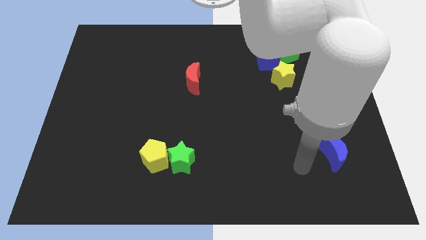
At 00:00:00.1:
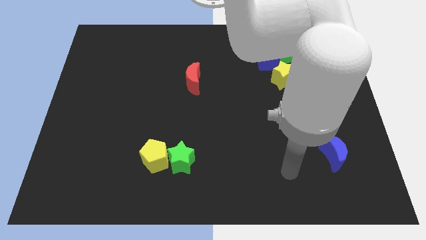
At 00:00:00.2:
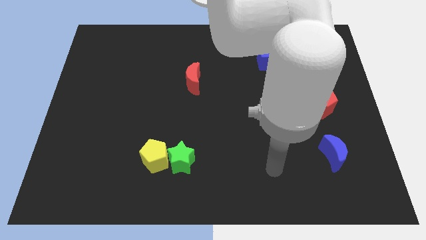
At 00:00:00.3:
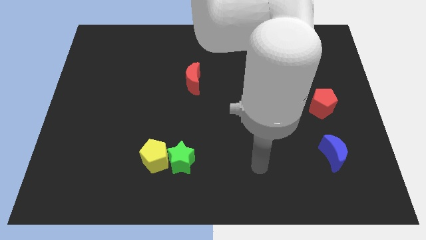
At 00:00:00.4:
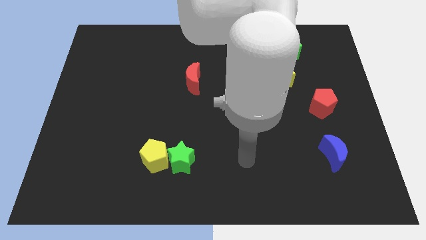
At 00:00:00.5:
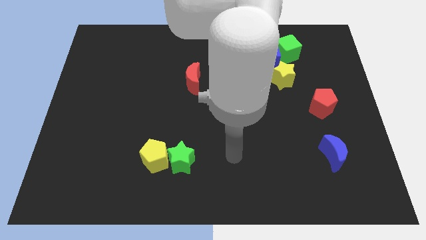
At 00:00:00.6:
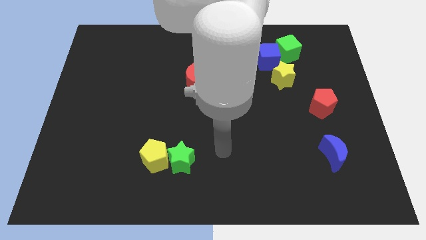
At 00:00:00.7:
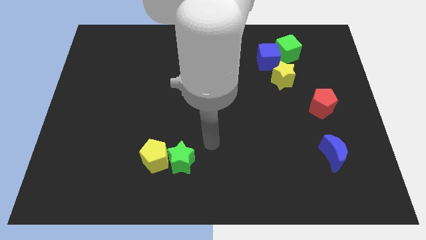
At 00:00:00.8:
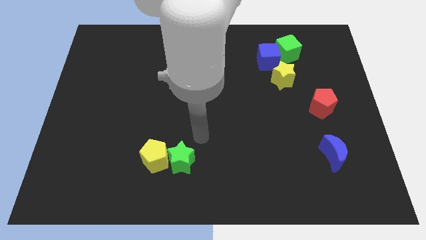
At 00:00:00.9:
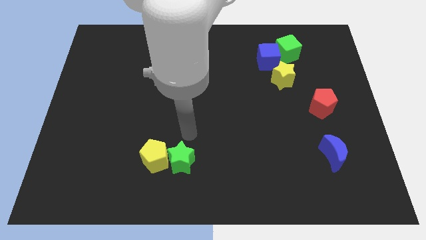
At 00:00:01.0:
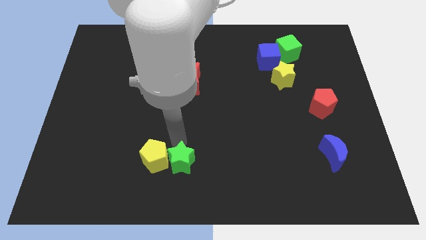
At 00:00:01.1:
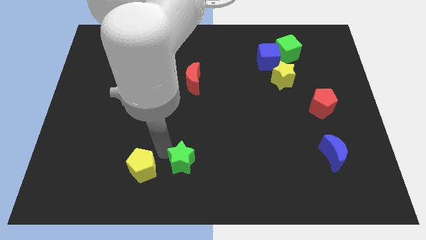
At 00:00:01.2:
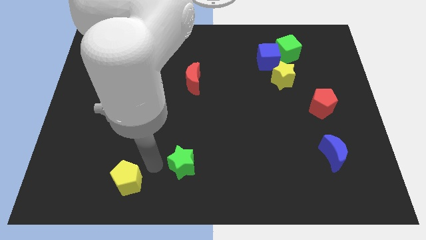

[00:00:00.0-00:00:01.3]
separate the green star from the yellow pentagon

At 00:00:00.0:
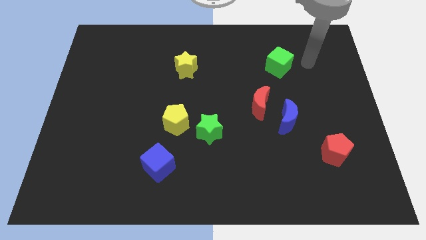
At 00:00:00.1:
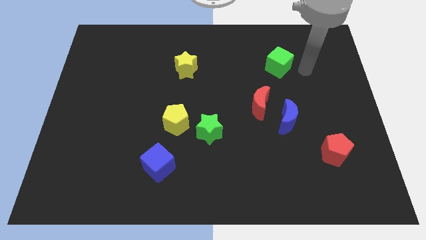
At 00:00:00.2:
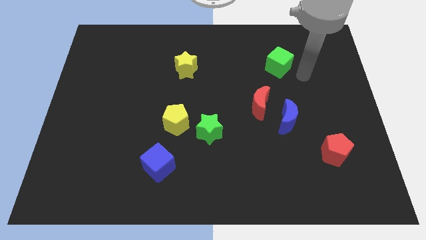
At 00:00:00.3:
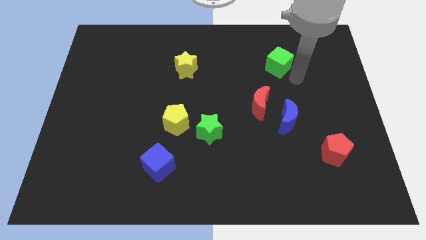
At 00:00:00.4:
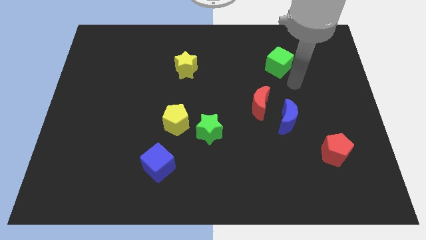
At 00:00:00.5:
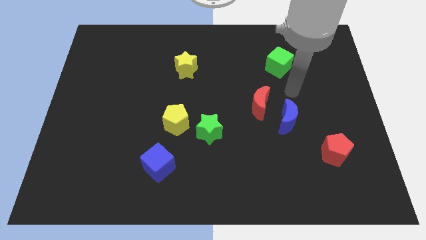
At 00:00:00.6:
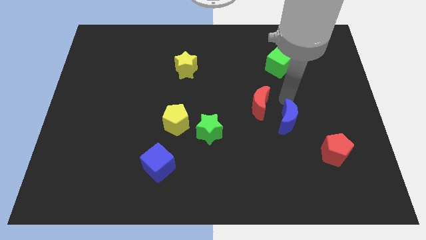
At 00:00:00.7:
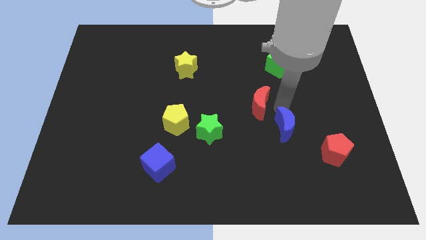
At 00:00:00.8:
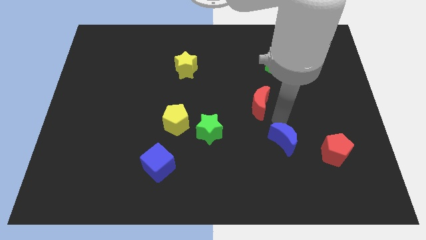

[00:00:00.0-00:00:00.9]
move the red moon away from the blue moon

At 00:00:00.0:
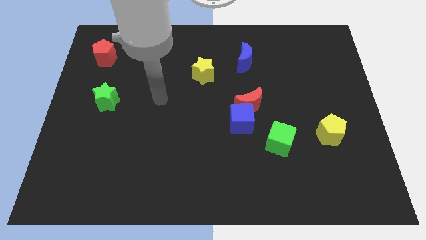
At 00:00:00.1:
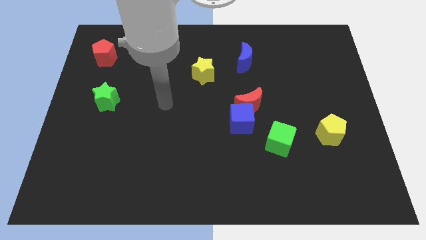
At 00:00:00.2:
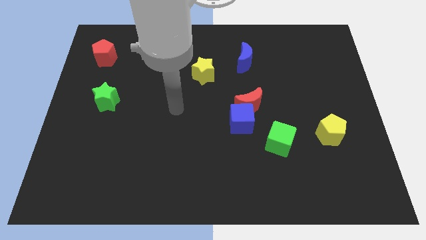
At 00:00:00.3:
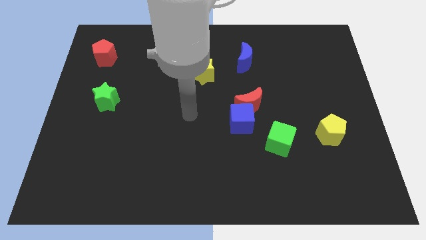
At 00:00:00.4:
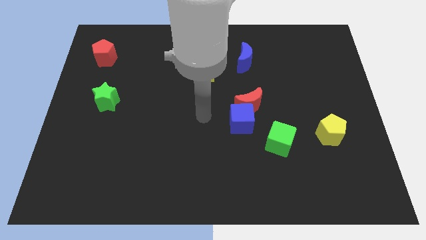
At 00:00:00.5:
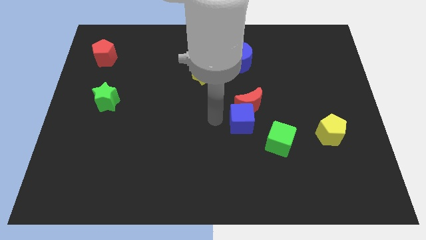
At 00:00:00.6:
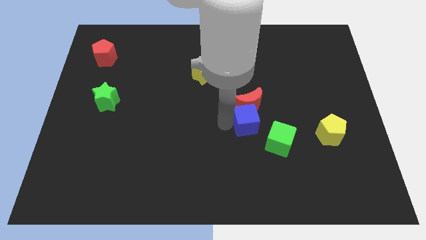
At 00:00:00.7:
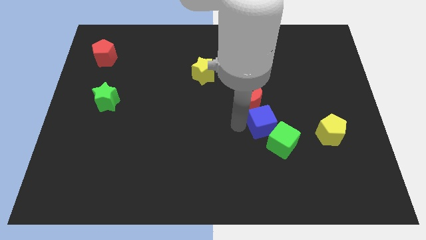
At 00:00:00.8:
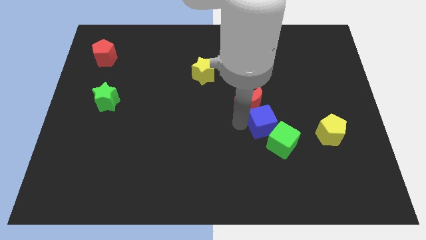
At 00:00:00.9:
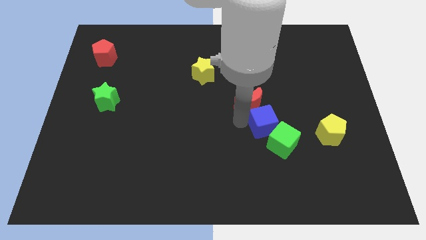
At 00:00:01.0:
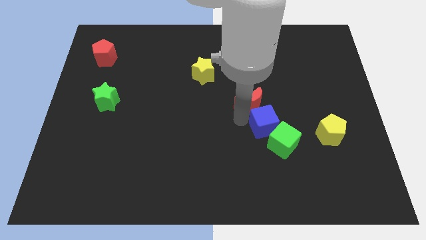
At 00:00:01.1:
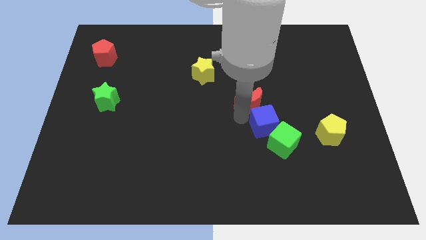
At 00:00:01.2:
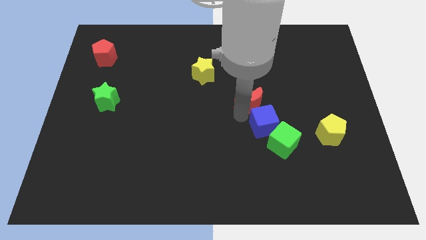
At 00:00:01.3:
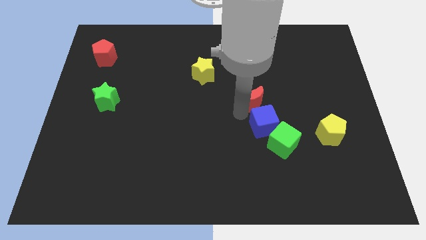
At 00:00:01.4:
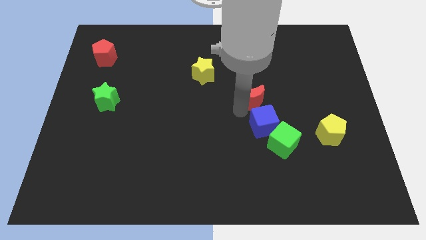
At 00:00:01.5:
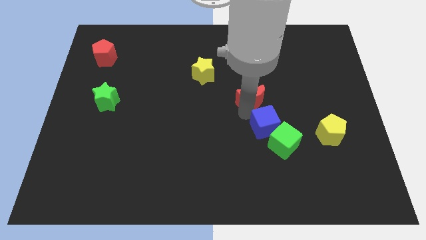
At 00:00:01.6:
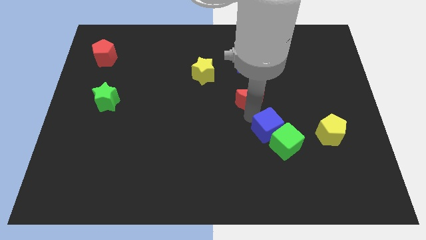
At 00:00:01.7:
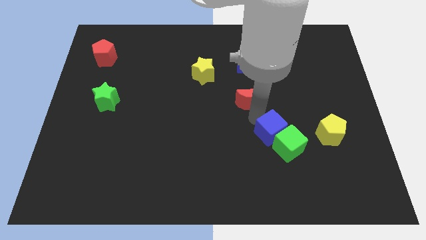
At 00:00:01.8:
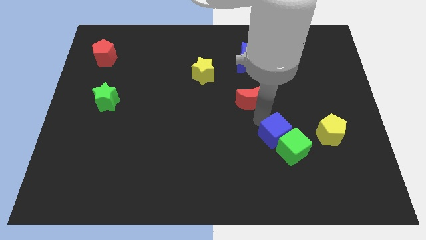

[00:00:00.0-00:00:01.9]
move the red moon away from the blue cube

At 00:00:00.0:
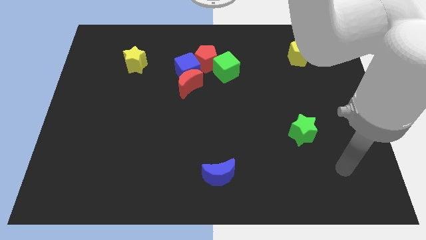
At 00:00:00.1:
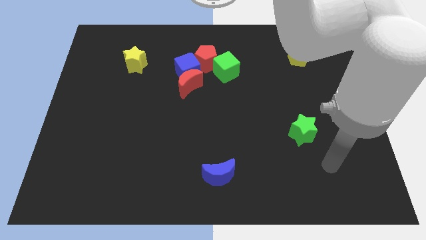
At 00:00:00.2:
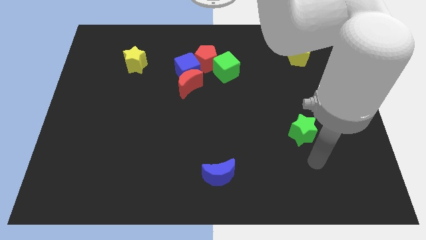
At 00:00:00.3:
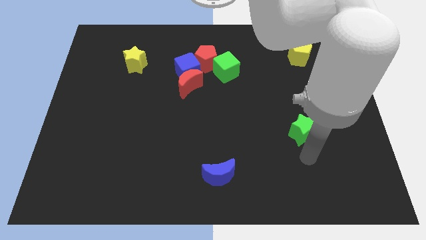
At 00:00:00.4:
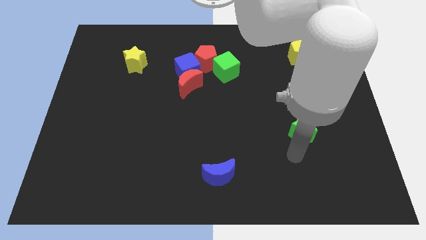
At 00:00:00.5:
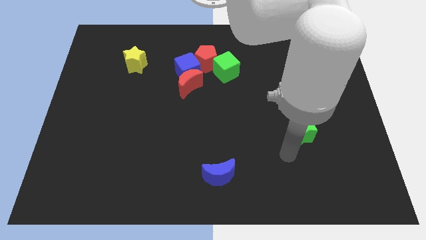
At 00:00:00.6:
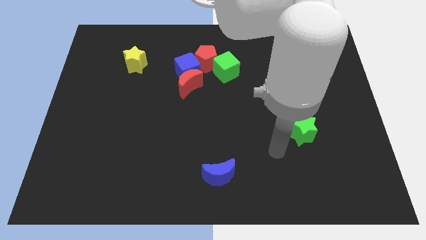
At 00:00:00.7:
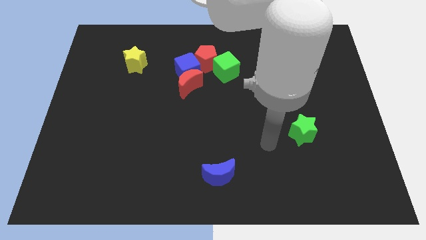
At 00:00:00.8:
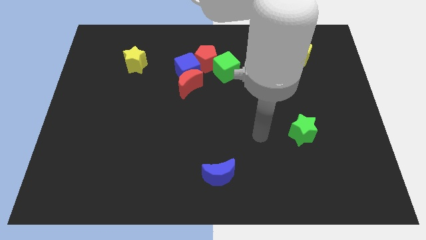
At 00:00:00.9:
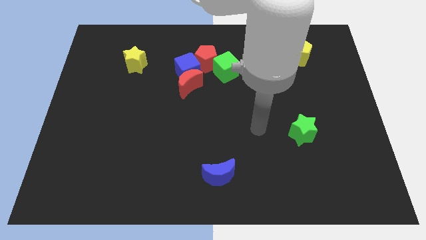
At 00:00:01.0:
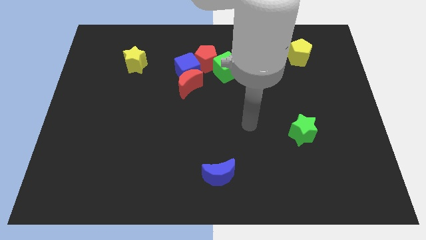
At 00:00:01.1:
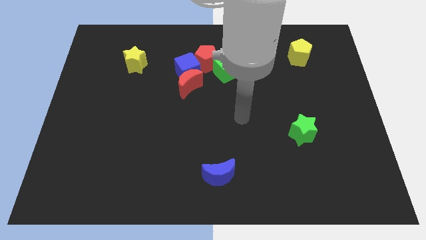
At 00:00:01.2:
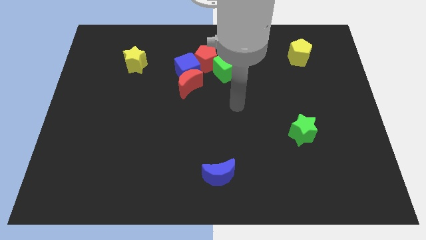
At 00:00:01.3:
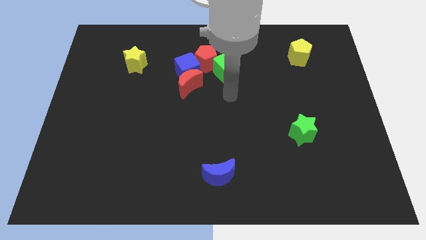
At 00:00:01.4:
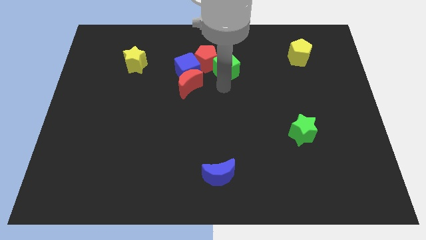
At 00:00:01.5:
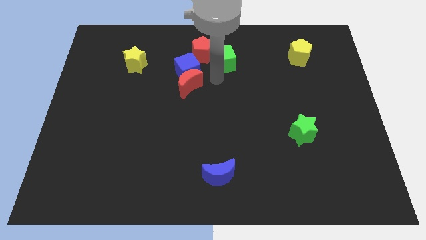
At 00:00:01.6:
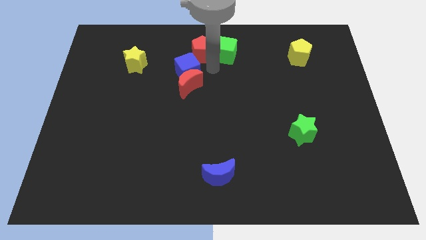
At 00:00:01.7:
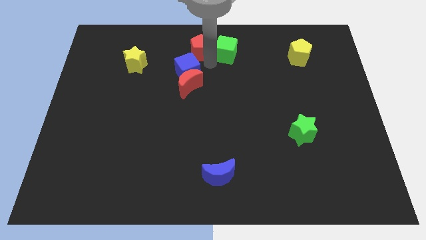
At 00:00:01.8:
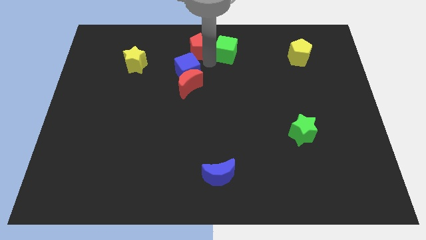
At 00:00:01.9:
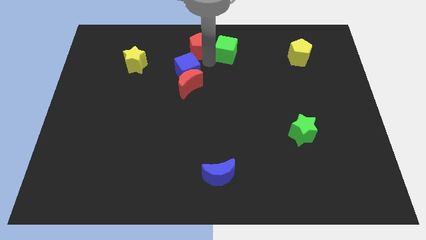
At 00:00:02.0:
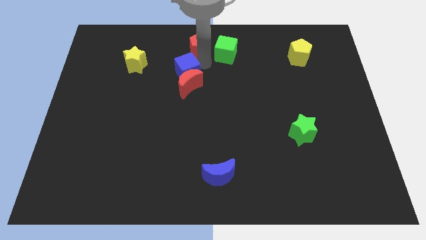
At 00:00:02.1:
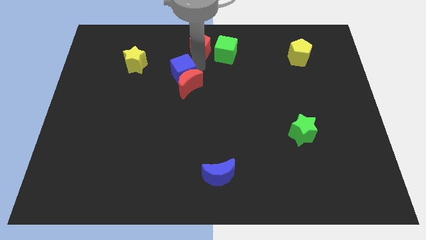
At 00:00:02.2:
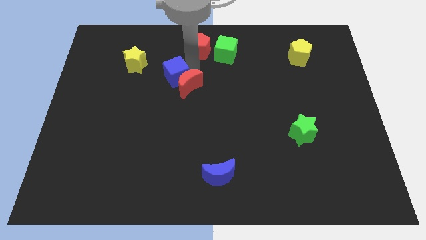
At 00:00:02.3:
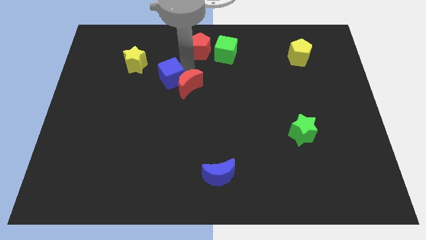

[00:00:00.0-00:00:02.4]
move the blue cube away from the group of blocks

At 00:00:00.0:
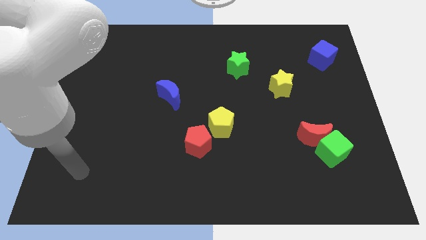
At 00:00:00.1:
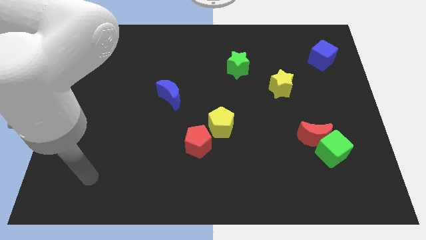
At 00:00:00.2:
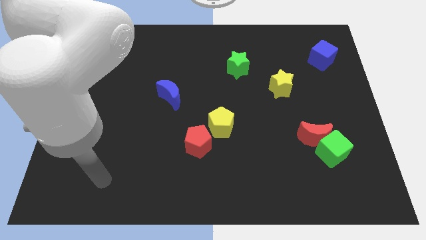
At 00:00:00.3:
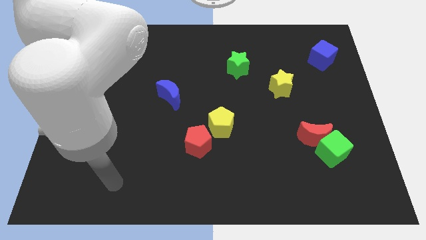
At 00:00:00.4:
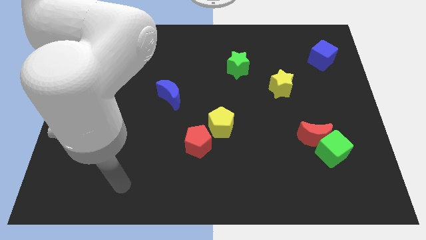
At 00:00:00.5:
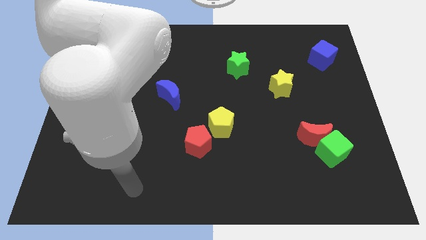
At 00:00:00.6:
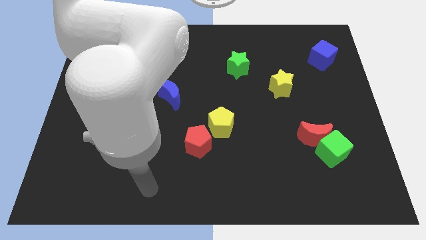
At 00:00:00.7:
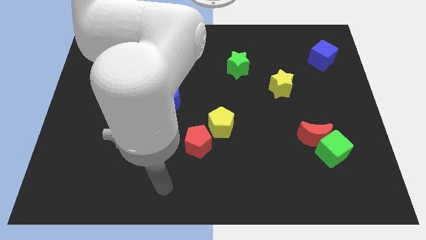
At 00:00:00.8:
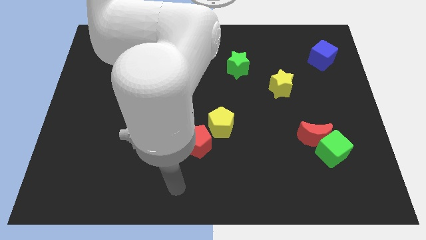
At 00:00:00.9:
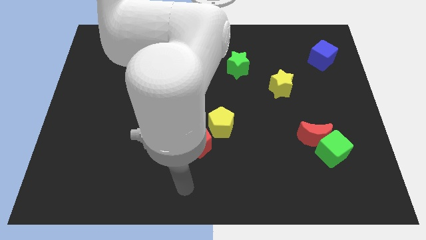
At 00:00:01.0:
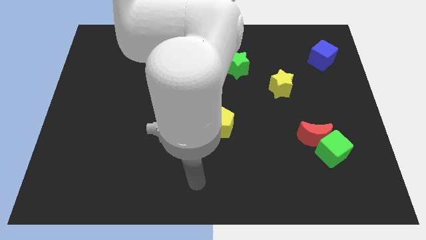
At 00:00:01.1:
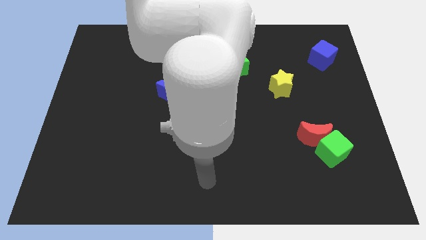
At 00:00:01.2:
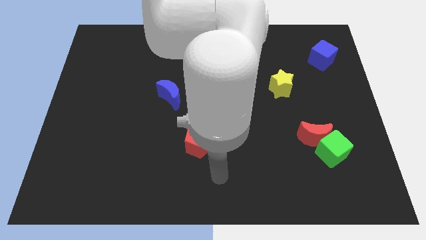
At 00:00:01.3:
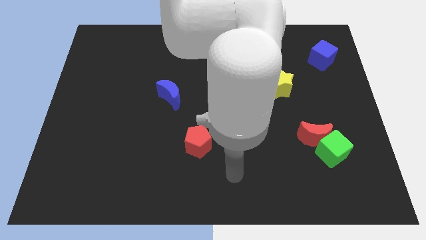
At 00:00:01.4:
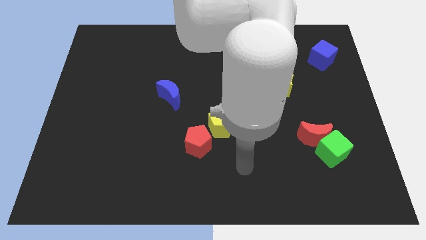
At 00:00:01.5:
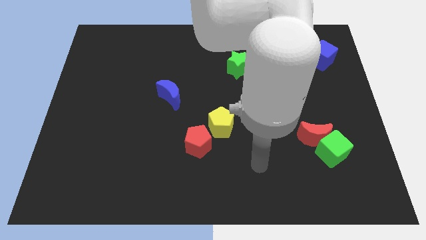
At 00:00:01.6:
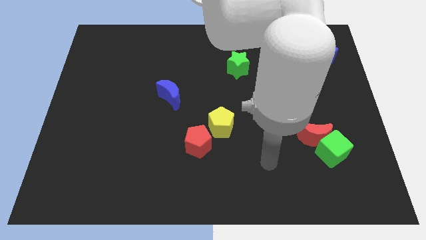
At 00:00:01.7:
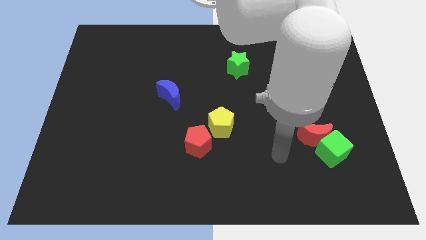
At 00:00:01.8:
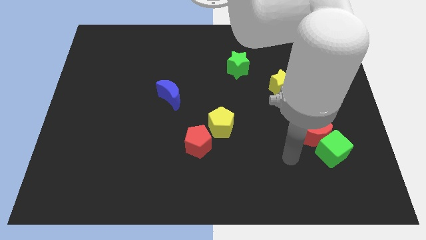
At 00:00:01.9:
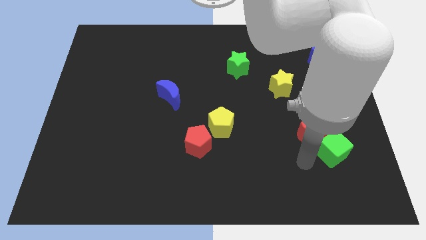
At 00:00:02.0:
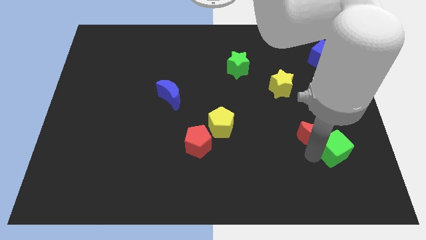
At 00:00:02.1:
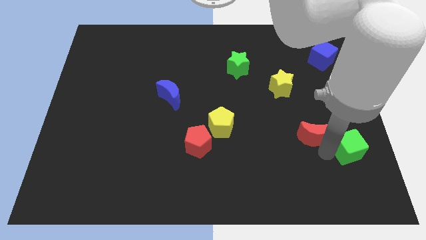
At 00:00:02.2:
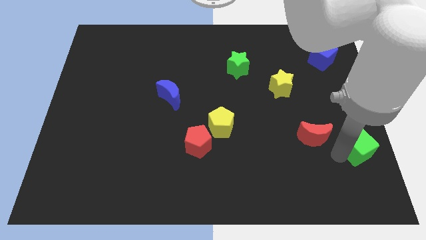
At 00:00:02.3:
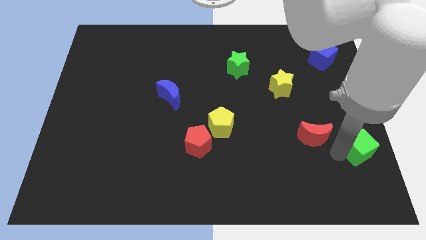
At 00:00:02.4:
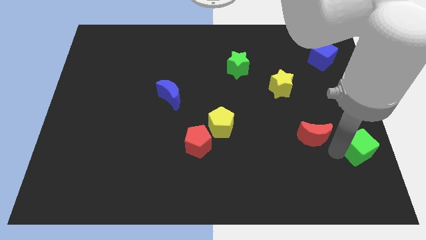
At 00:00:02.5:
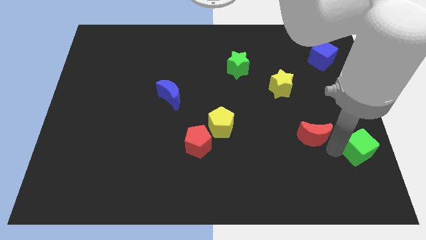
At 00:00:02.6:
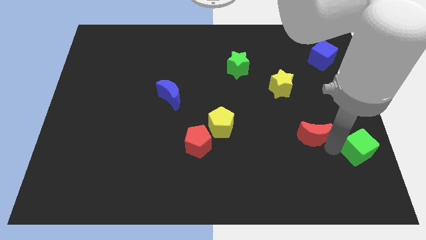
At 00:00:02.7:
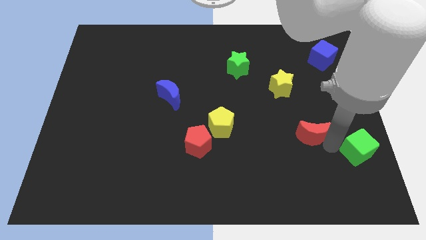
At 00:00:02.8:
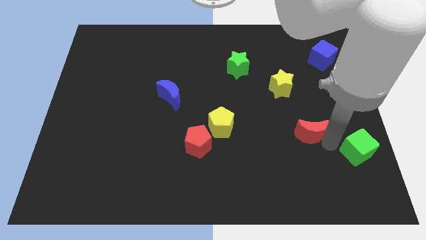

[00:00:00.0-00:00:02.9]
move the red moon away from the green cube
